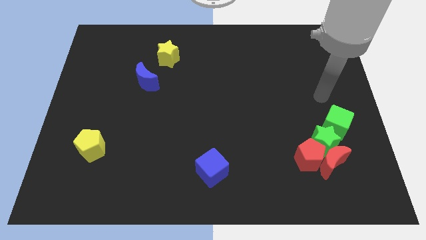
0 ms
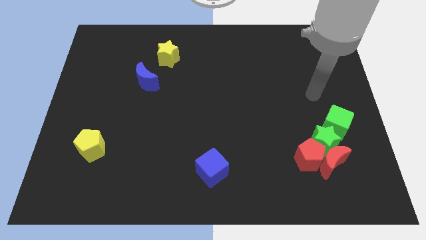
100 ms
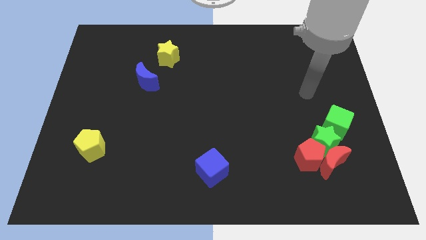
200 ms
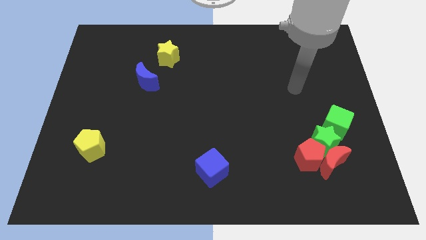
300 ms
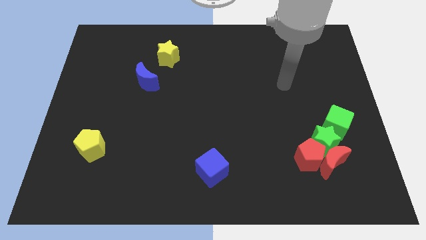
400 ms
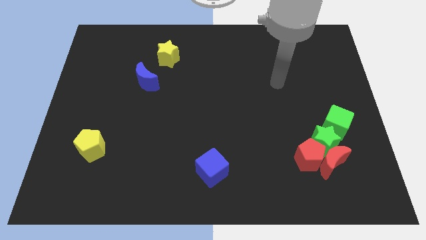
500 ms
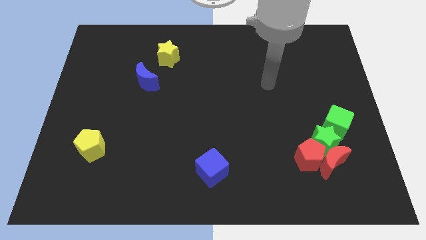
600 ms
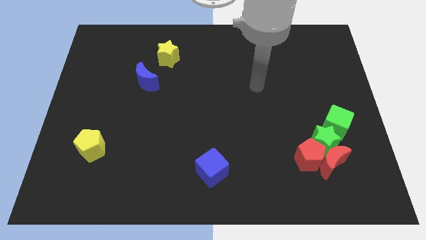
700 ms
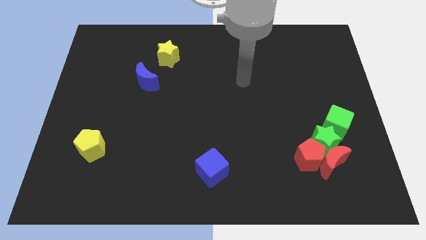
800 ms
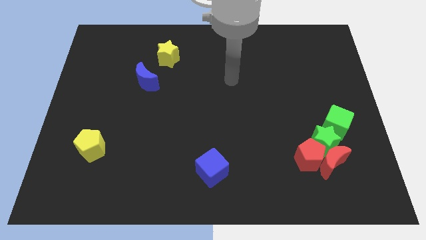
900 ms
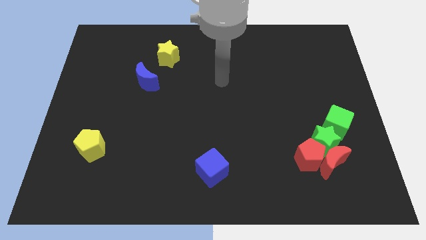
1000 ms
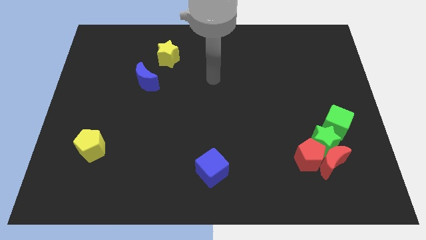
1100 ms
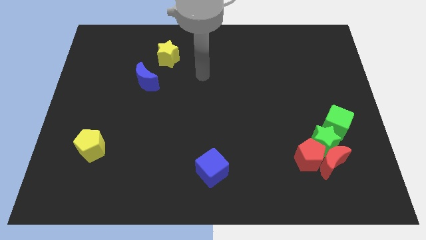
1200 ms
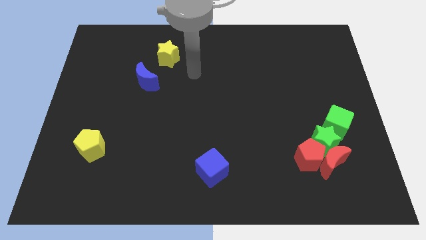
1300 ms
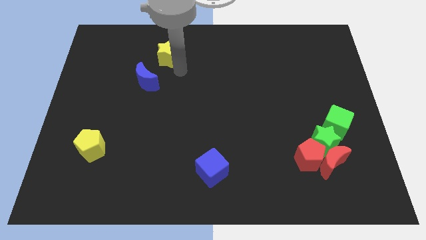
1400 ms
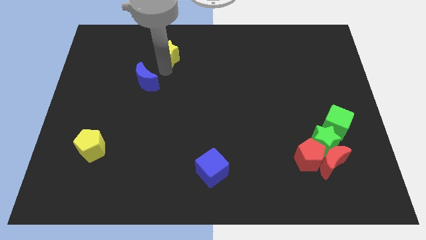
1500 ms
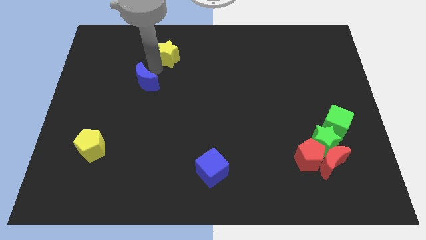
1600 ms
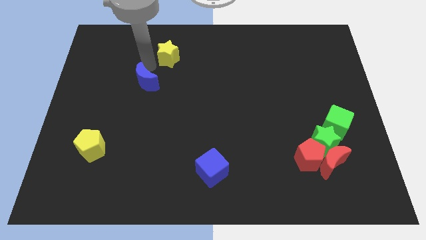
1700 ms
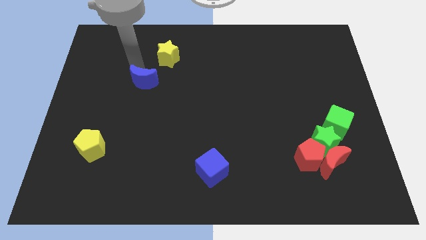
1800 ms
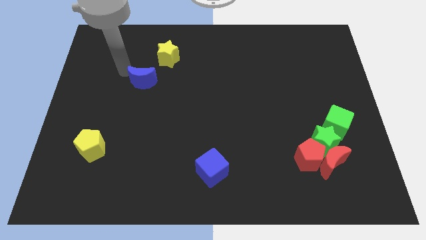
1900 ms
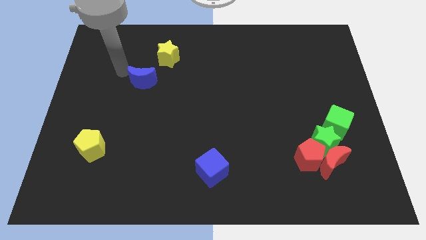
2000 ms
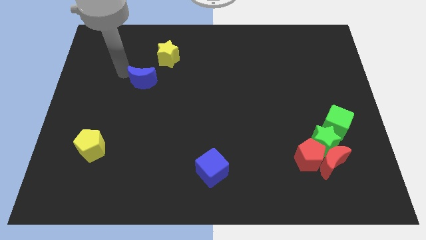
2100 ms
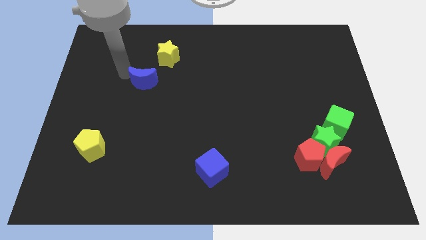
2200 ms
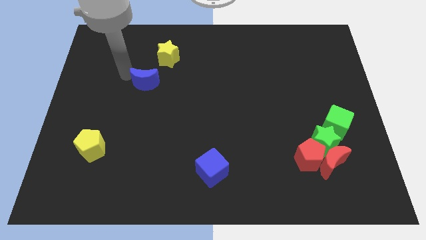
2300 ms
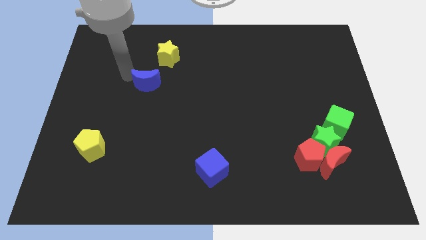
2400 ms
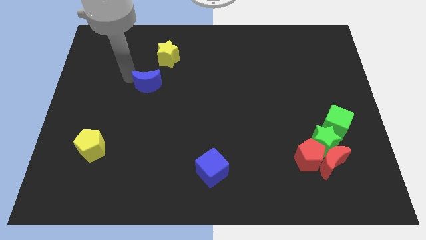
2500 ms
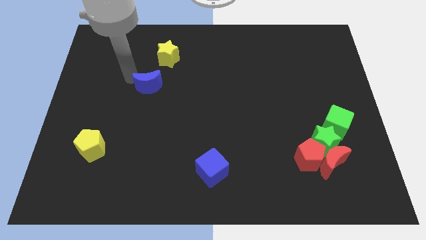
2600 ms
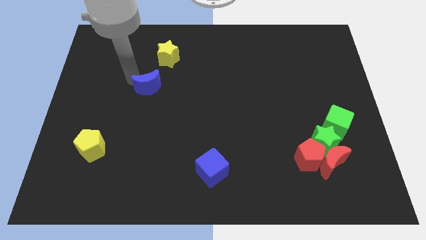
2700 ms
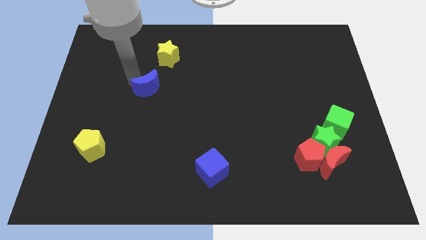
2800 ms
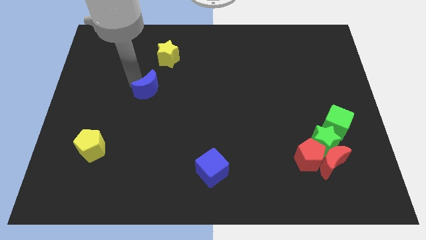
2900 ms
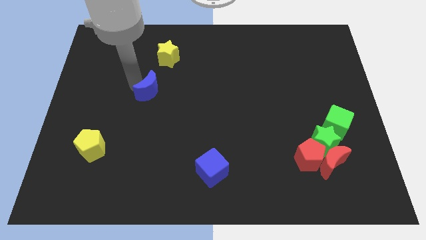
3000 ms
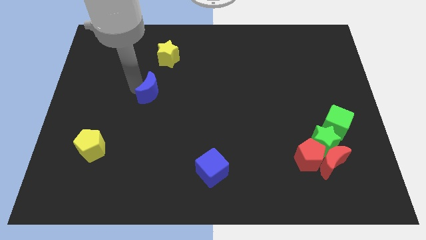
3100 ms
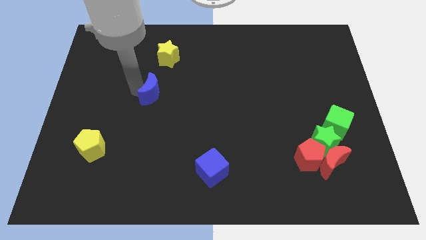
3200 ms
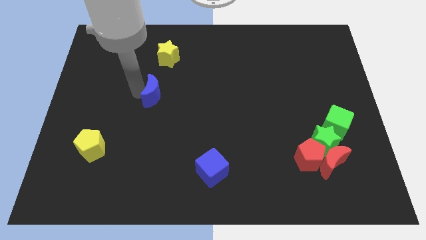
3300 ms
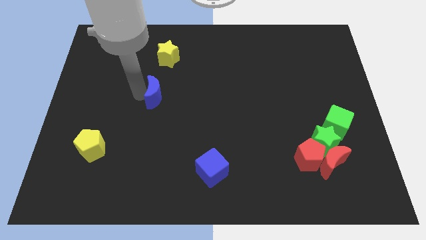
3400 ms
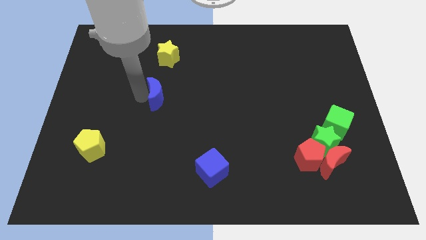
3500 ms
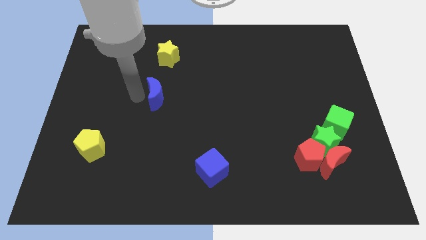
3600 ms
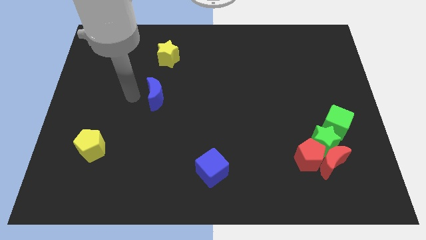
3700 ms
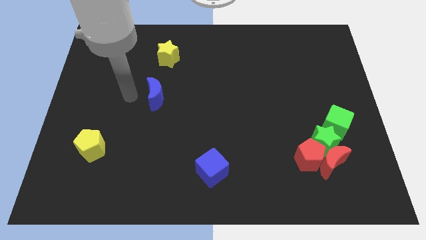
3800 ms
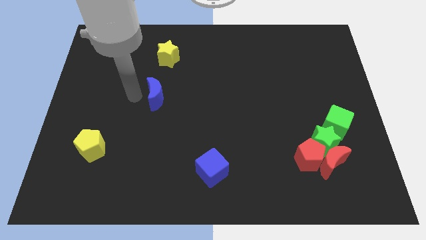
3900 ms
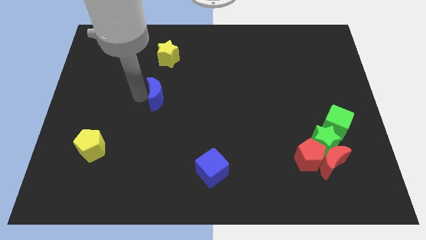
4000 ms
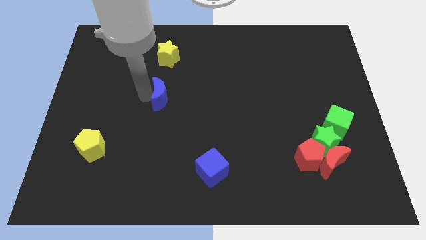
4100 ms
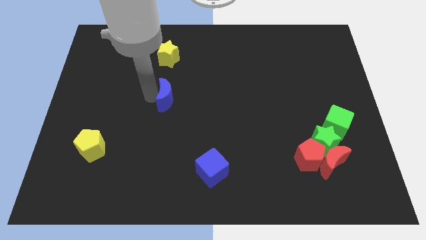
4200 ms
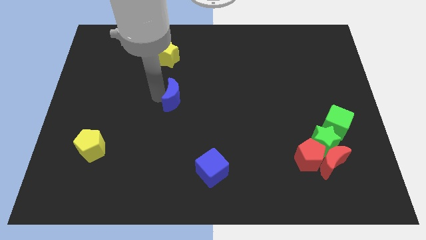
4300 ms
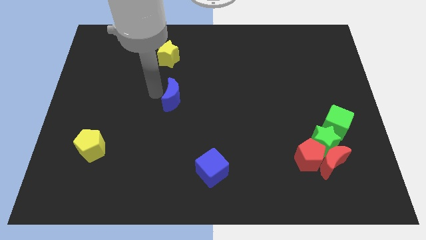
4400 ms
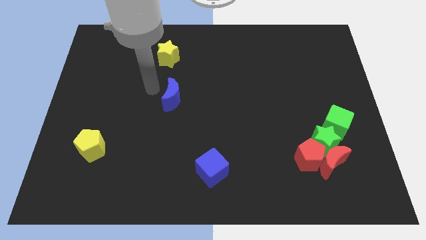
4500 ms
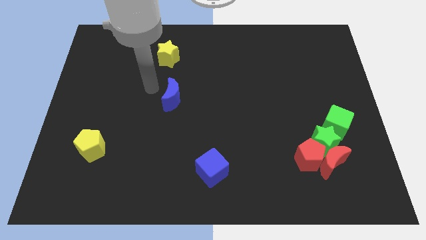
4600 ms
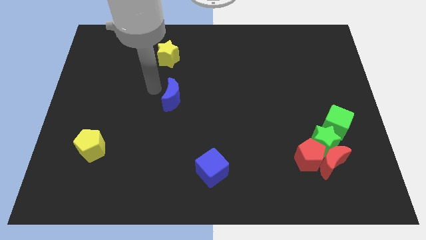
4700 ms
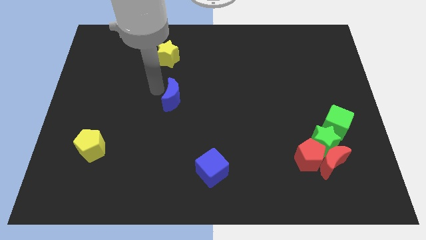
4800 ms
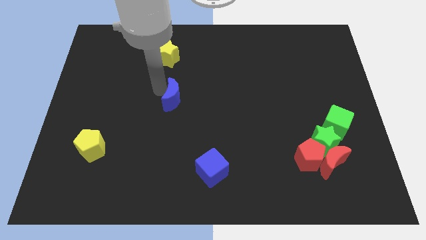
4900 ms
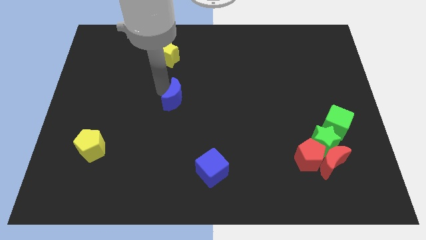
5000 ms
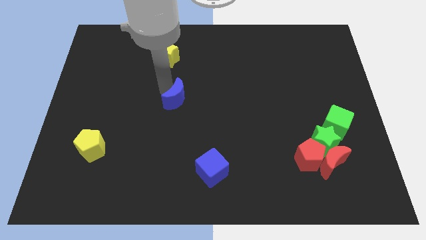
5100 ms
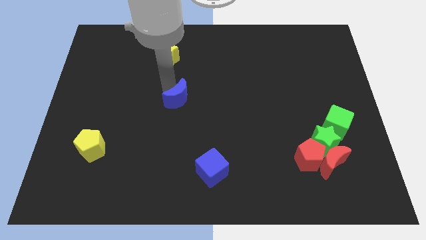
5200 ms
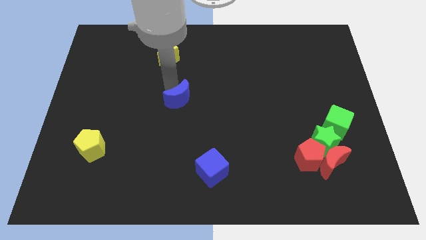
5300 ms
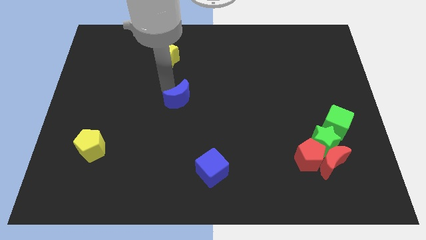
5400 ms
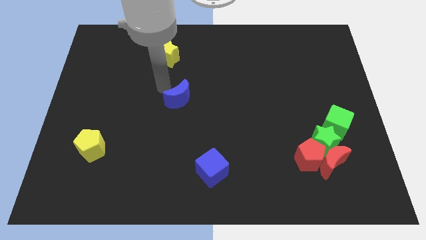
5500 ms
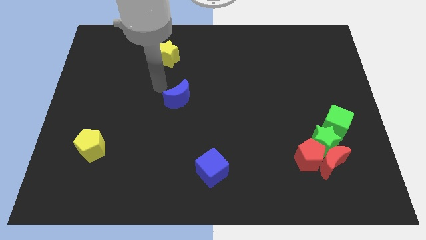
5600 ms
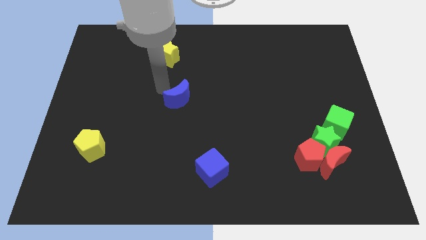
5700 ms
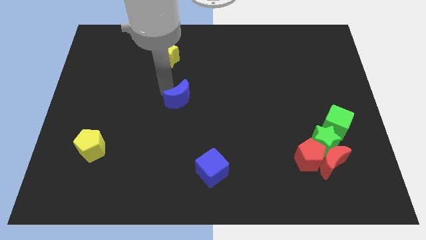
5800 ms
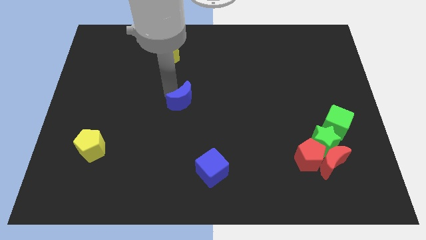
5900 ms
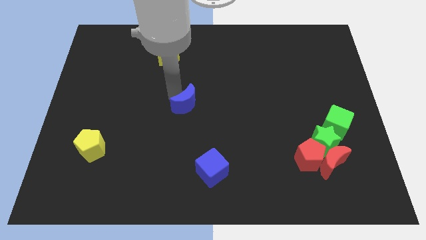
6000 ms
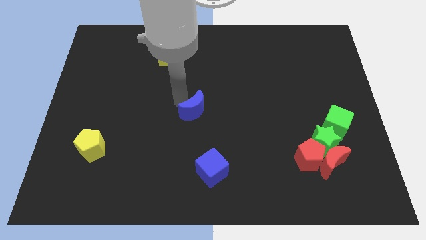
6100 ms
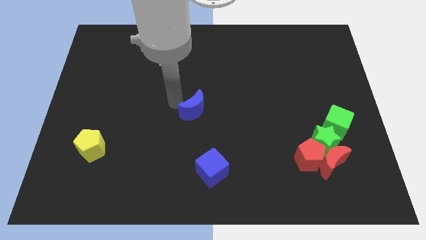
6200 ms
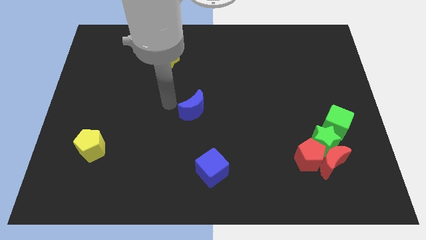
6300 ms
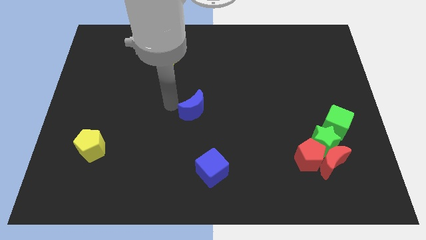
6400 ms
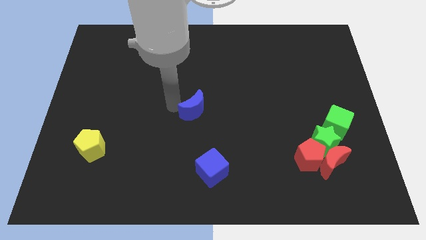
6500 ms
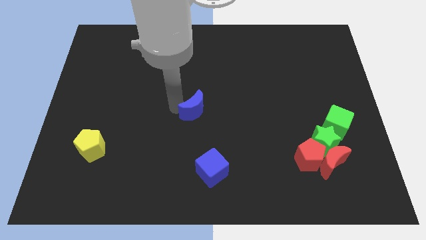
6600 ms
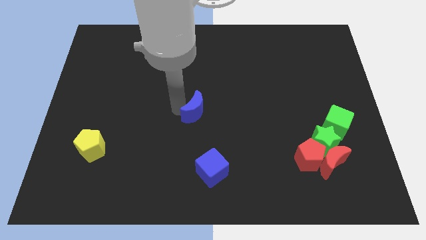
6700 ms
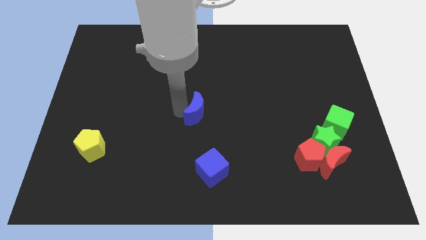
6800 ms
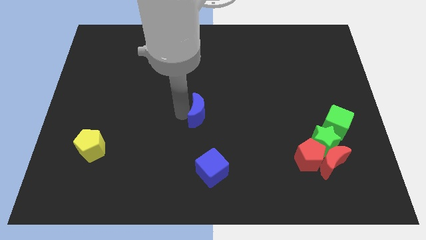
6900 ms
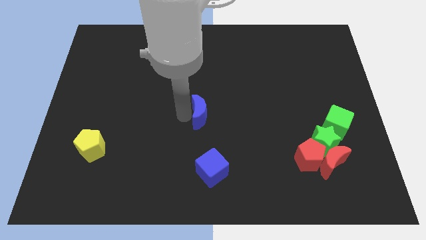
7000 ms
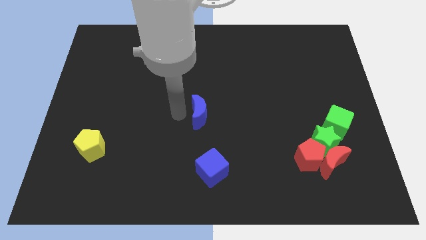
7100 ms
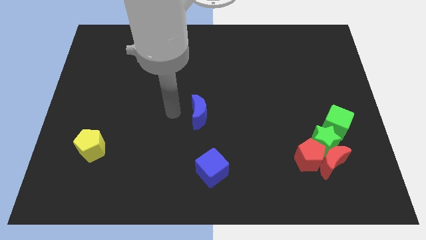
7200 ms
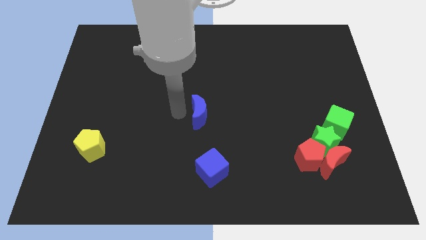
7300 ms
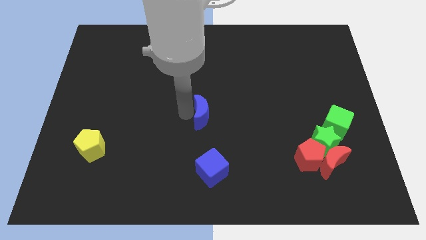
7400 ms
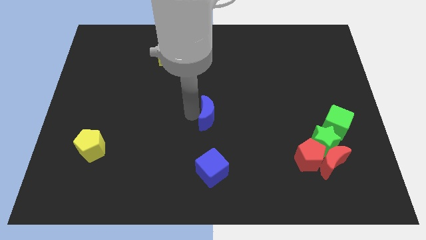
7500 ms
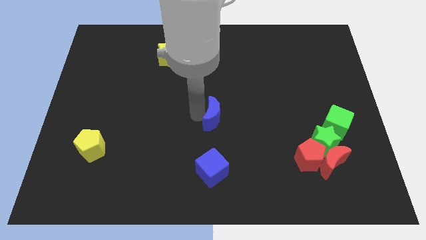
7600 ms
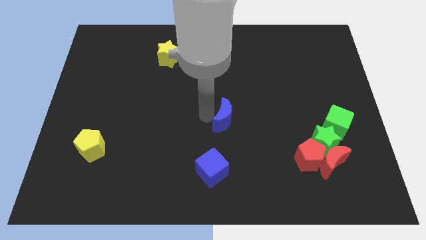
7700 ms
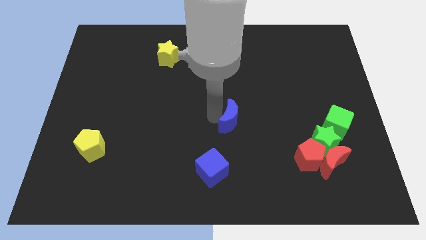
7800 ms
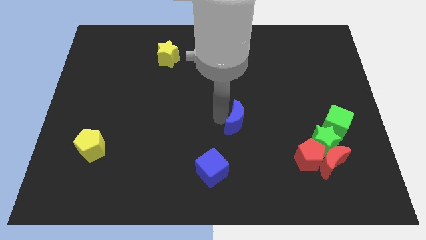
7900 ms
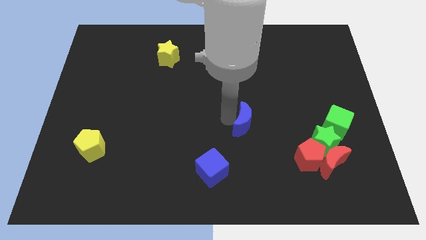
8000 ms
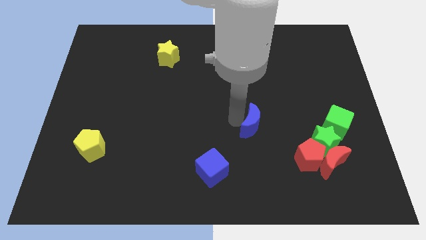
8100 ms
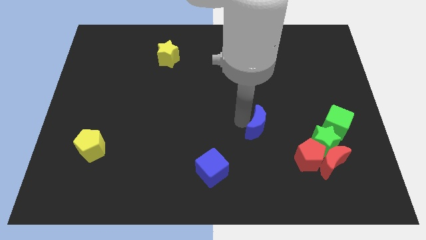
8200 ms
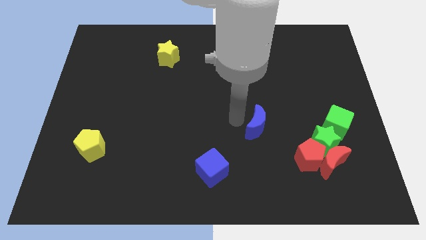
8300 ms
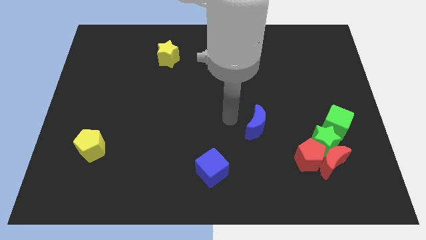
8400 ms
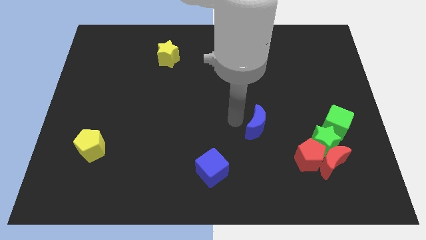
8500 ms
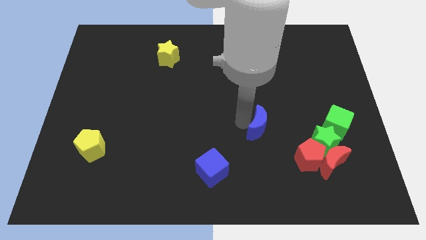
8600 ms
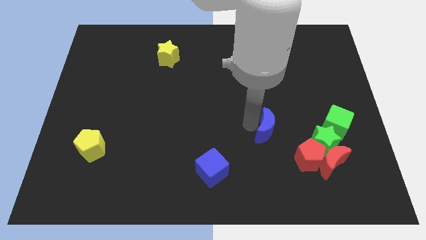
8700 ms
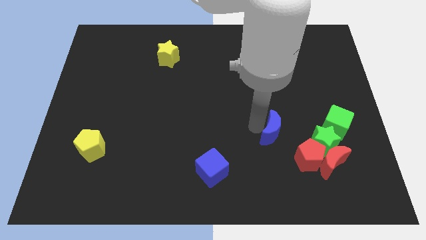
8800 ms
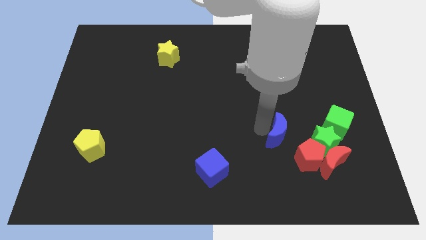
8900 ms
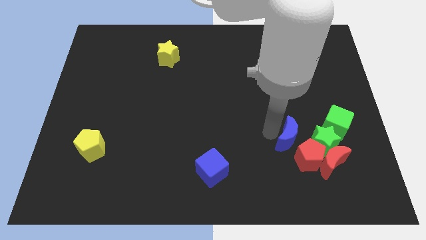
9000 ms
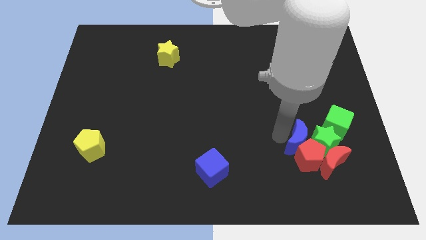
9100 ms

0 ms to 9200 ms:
put the blue moon towards the green star
